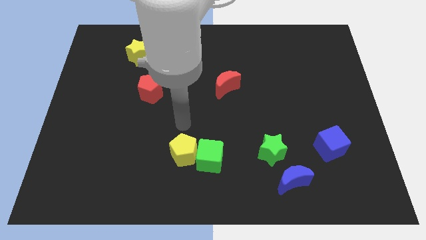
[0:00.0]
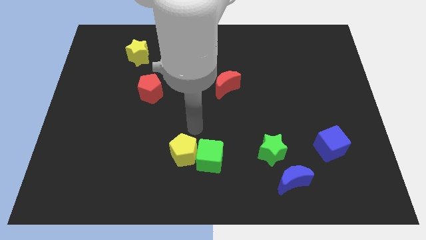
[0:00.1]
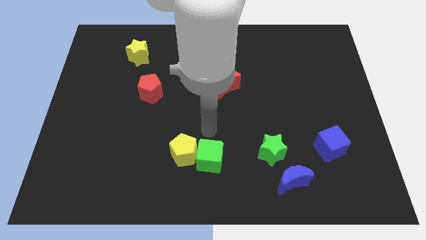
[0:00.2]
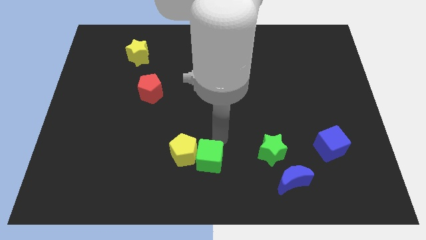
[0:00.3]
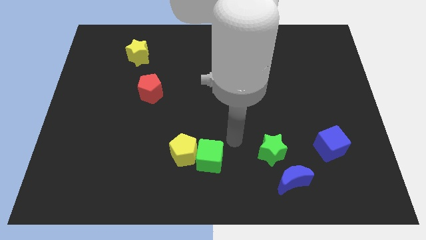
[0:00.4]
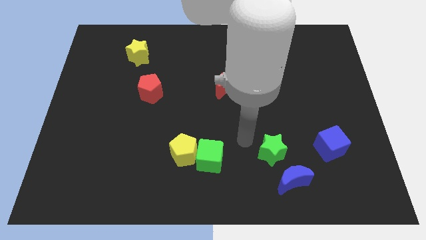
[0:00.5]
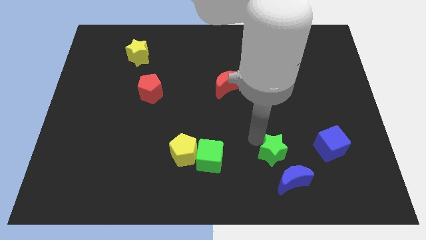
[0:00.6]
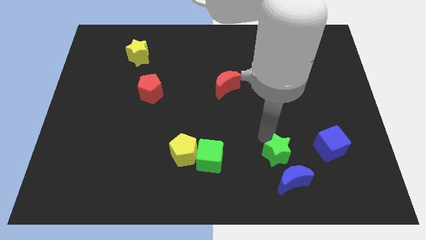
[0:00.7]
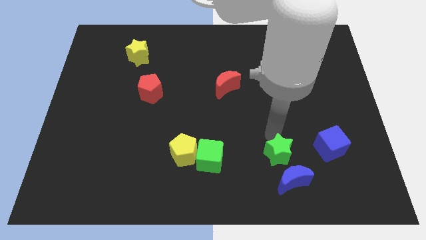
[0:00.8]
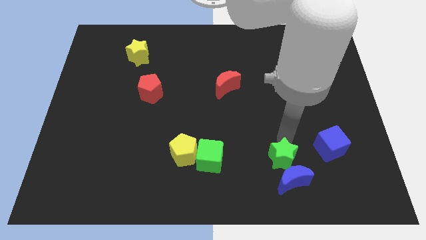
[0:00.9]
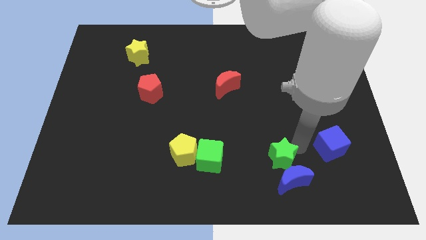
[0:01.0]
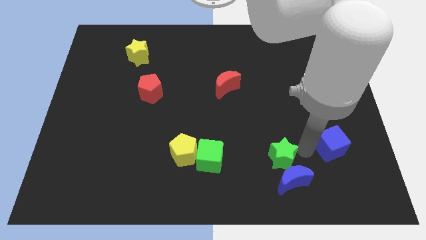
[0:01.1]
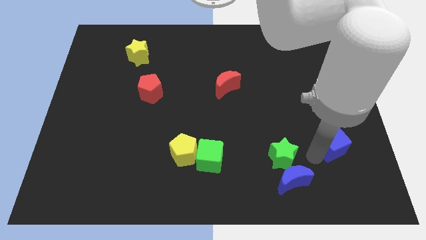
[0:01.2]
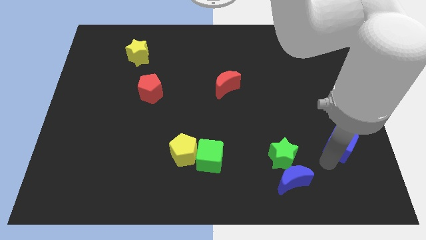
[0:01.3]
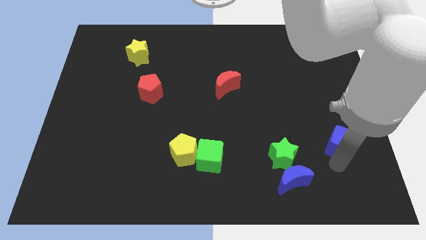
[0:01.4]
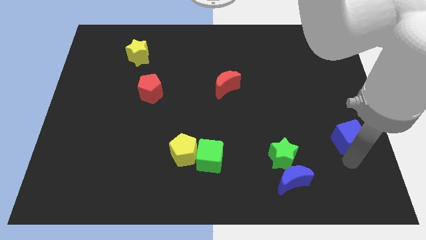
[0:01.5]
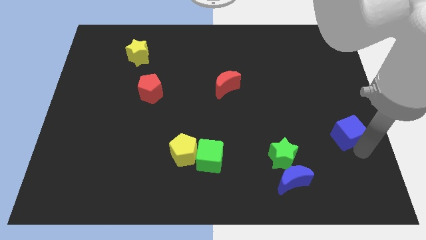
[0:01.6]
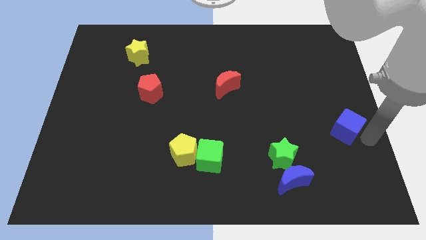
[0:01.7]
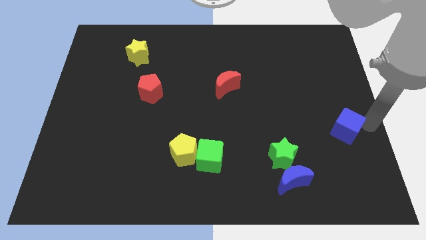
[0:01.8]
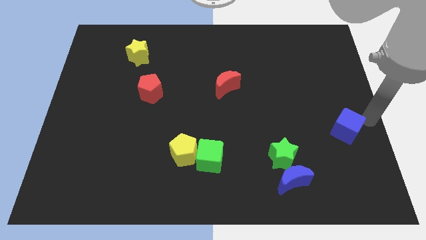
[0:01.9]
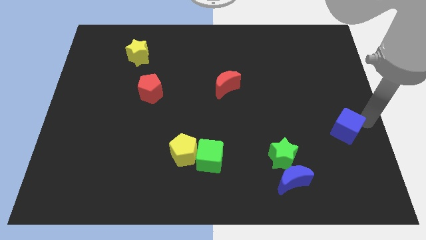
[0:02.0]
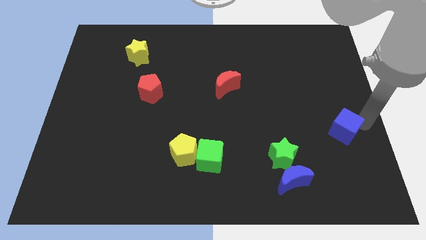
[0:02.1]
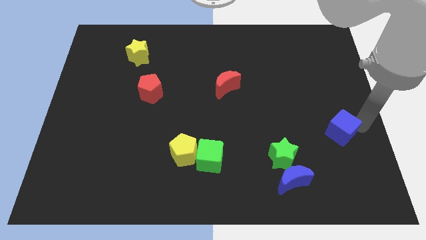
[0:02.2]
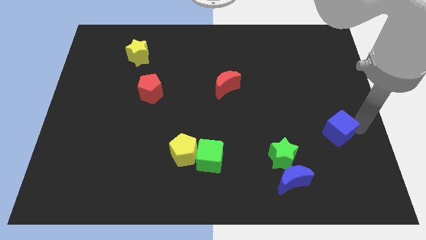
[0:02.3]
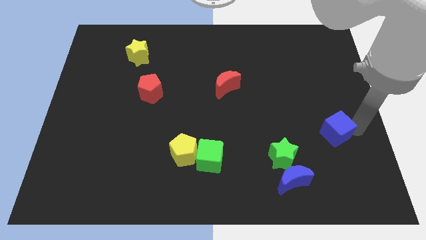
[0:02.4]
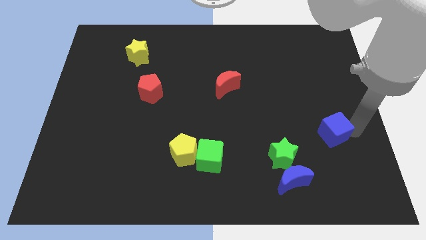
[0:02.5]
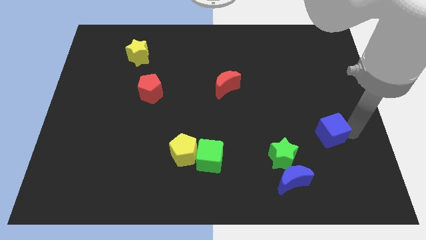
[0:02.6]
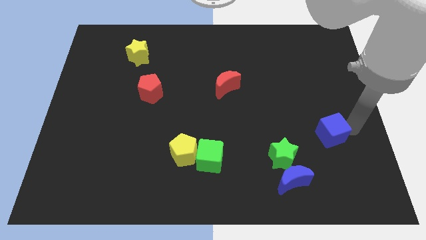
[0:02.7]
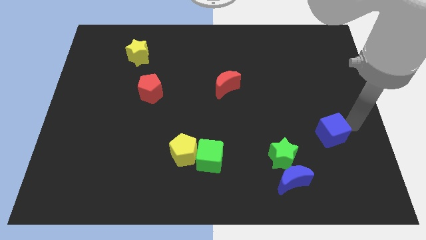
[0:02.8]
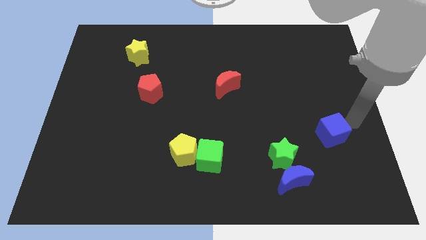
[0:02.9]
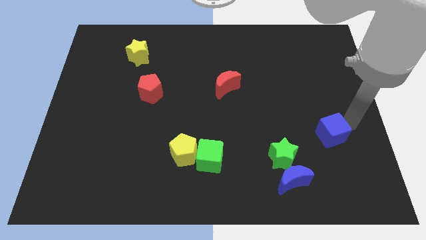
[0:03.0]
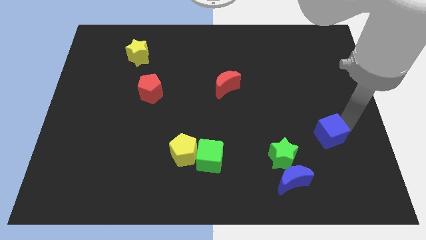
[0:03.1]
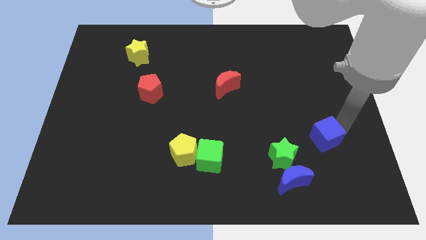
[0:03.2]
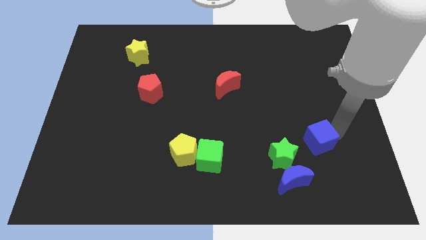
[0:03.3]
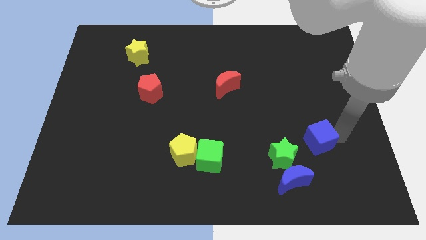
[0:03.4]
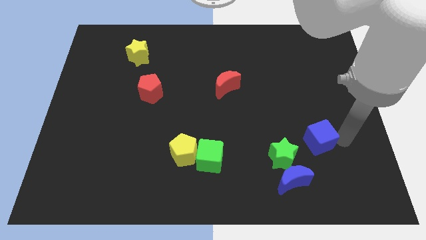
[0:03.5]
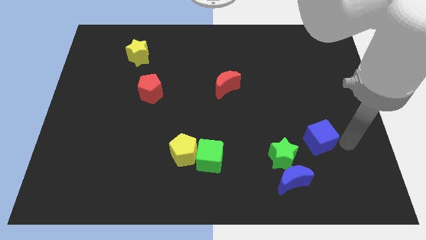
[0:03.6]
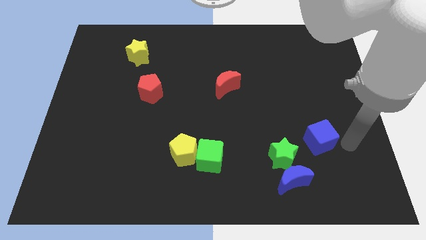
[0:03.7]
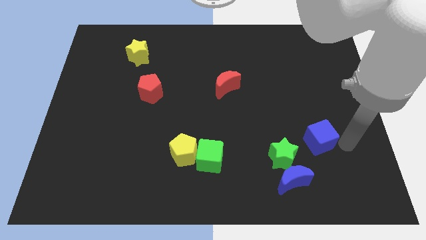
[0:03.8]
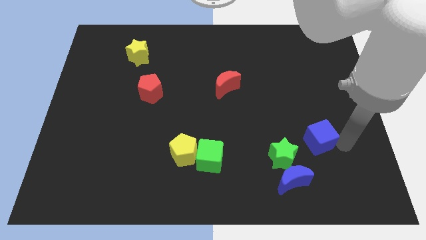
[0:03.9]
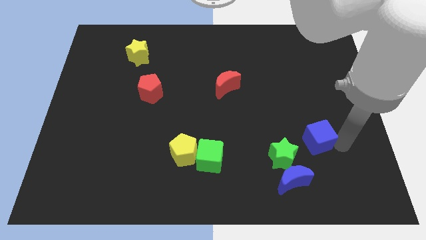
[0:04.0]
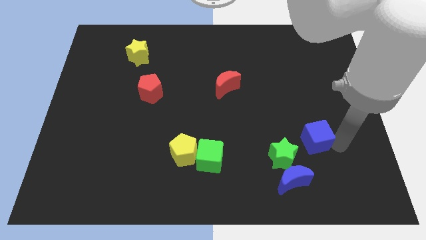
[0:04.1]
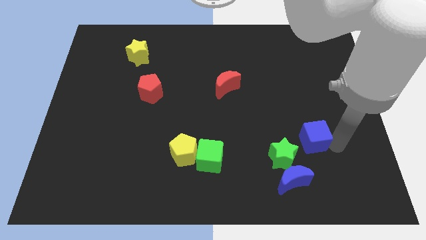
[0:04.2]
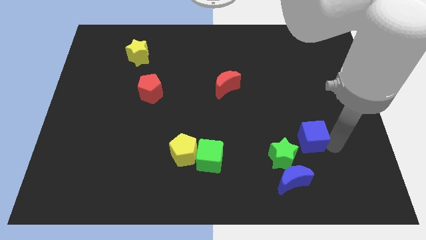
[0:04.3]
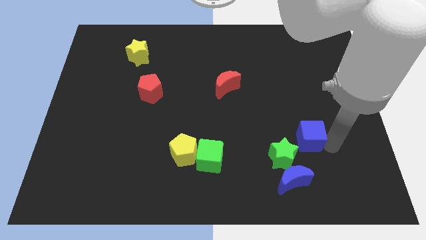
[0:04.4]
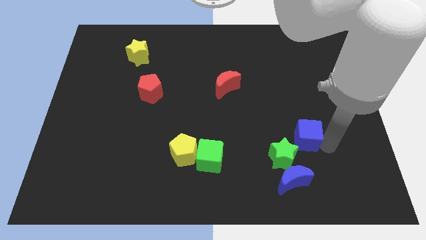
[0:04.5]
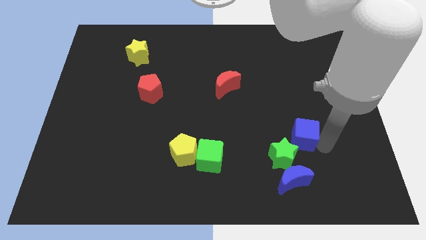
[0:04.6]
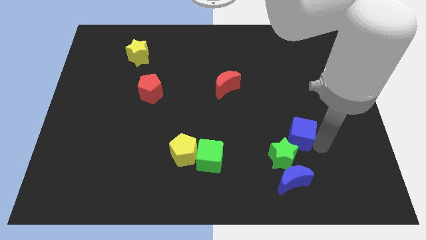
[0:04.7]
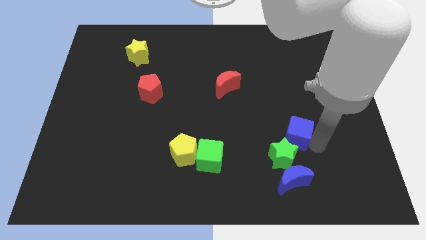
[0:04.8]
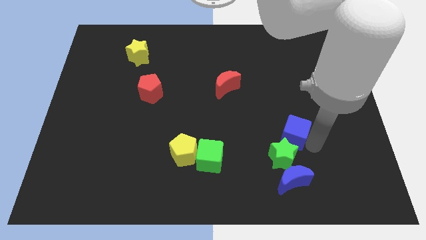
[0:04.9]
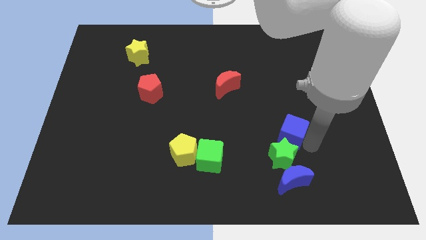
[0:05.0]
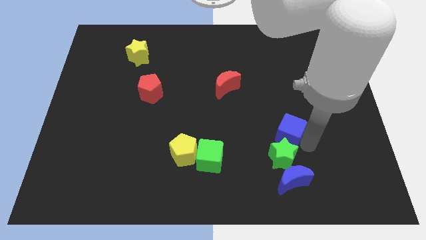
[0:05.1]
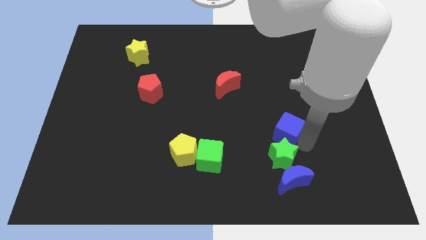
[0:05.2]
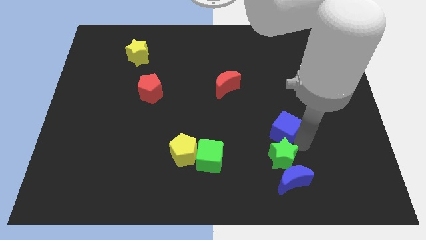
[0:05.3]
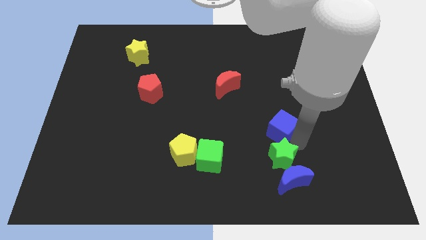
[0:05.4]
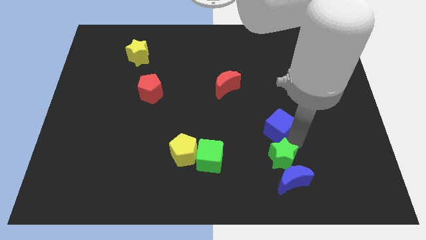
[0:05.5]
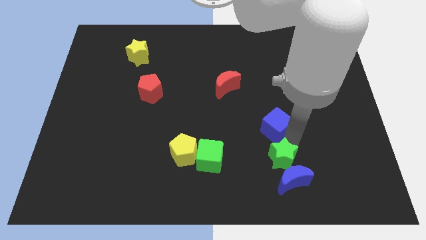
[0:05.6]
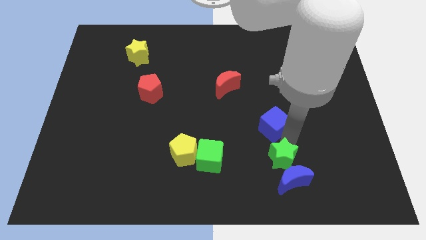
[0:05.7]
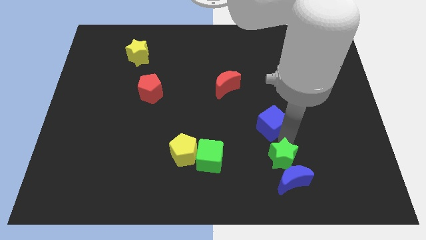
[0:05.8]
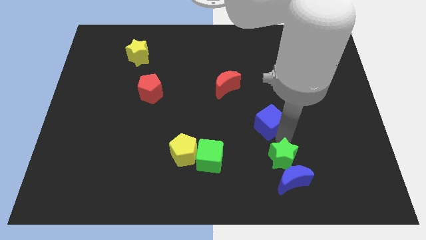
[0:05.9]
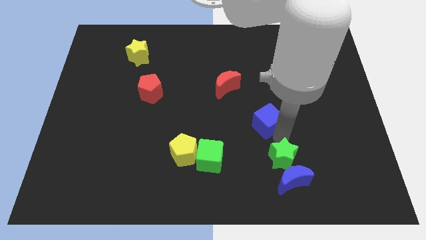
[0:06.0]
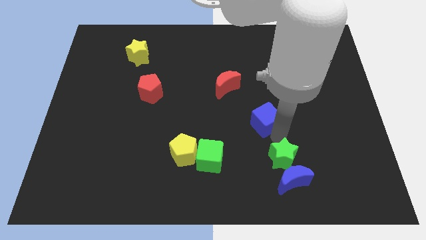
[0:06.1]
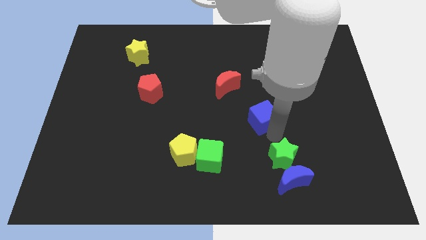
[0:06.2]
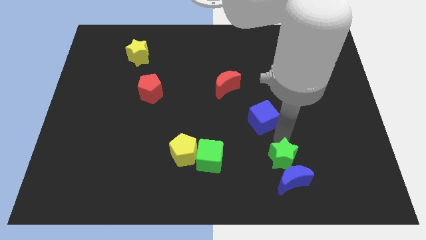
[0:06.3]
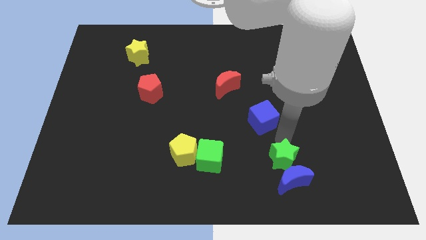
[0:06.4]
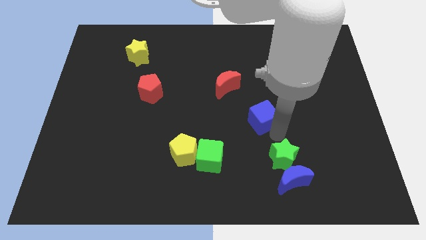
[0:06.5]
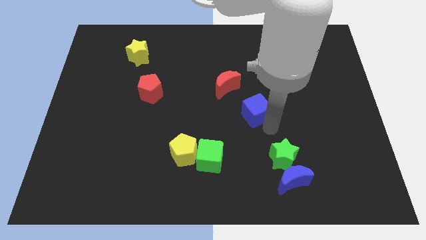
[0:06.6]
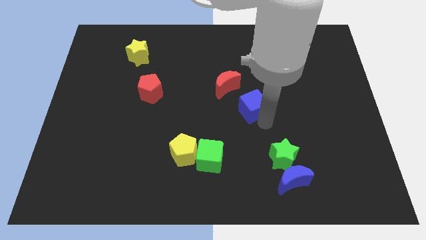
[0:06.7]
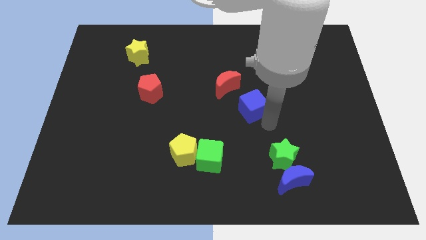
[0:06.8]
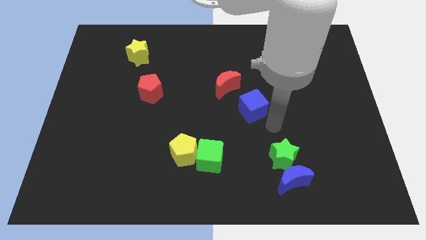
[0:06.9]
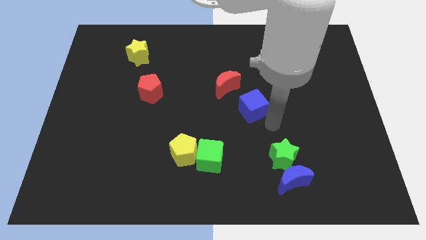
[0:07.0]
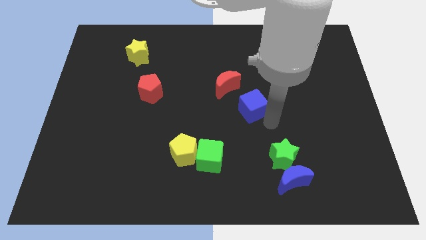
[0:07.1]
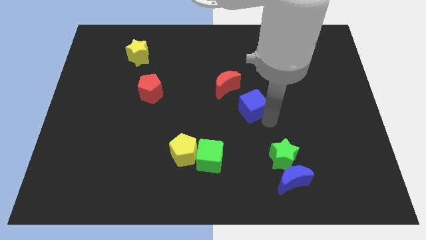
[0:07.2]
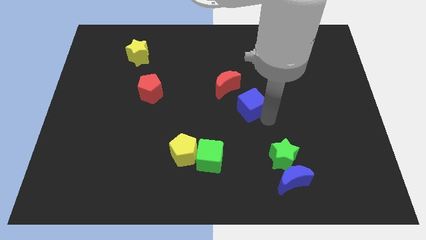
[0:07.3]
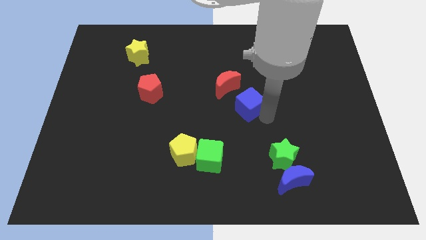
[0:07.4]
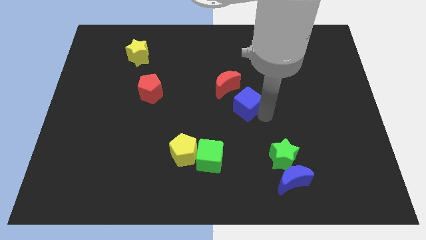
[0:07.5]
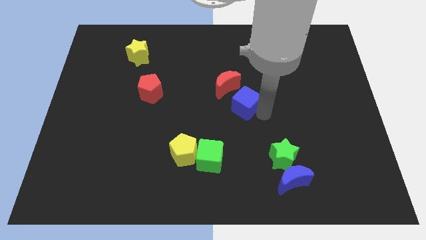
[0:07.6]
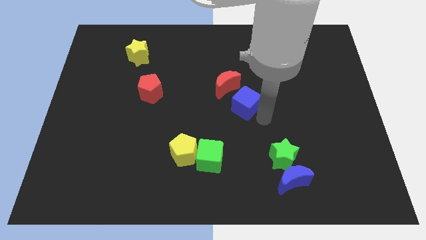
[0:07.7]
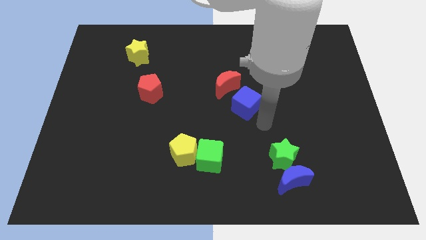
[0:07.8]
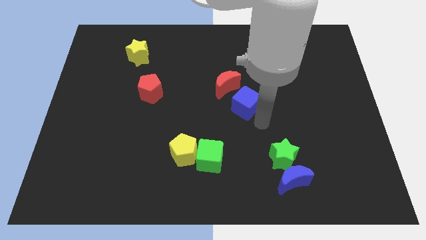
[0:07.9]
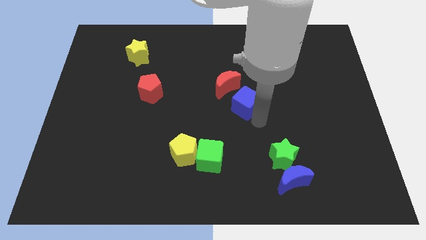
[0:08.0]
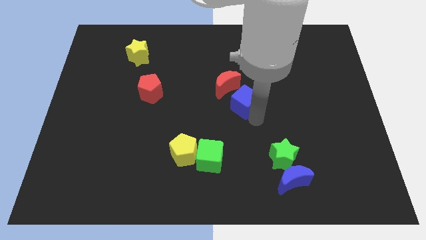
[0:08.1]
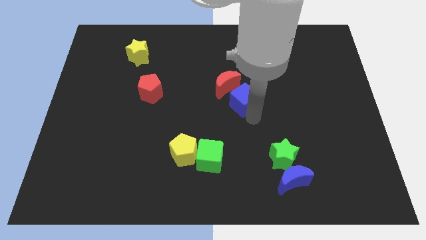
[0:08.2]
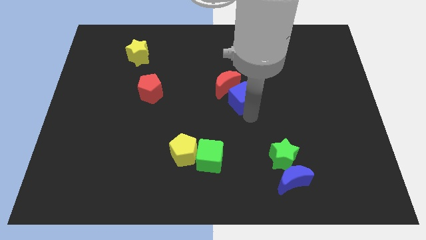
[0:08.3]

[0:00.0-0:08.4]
move the blue cube close to the red moon
